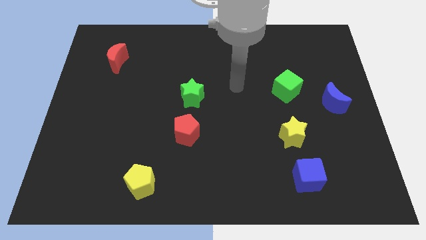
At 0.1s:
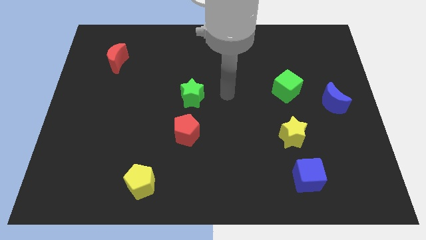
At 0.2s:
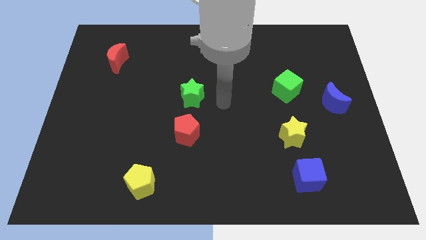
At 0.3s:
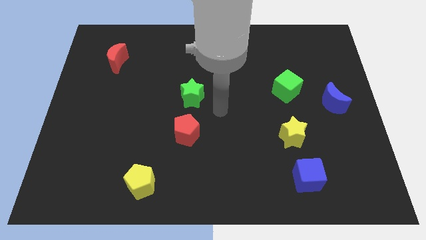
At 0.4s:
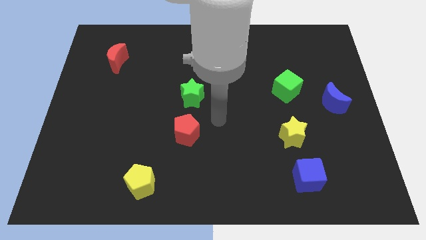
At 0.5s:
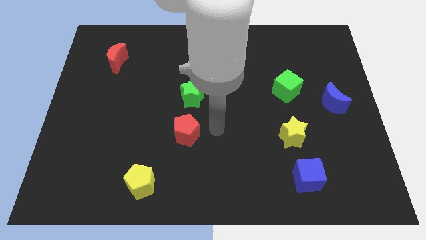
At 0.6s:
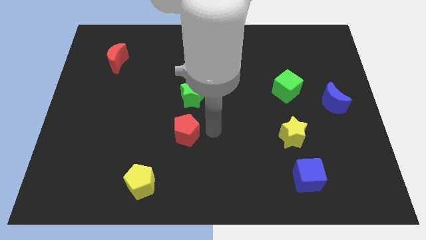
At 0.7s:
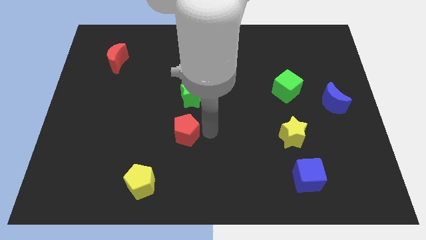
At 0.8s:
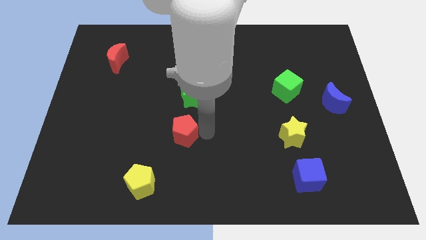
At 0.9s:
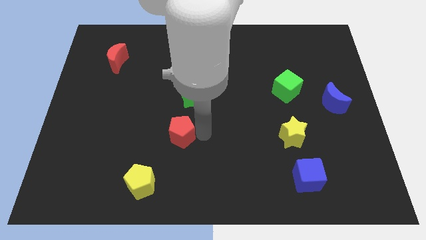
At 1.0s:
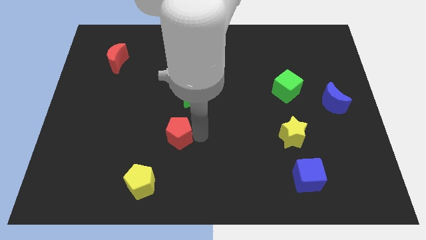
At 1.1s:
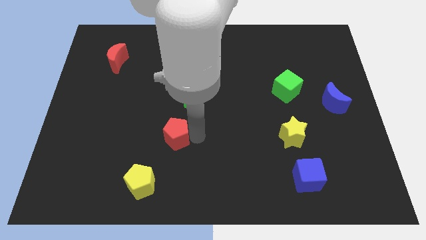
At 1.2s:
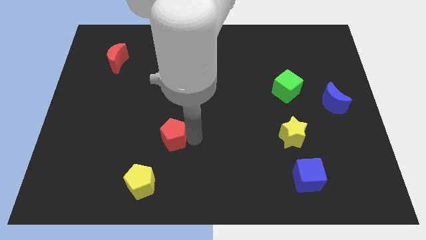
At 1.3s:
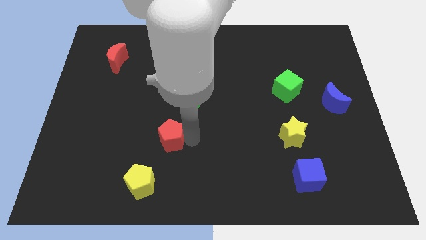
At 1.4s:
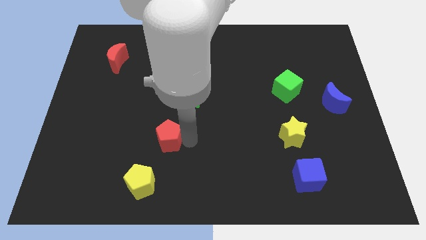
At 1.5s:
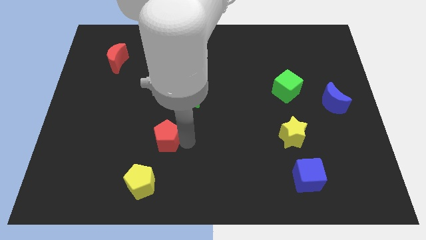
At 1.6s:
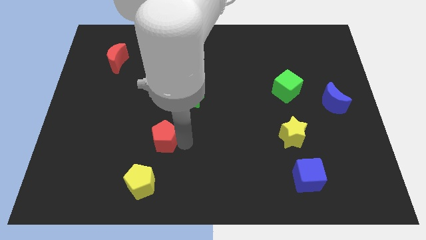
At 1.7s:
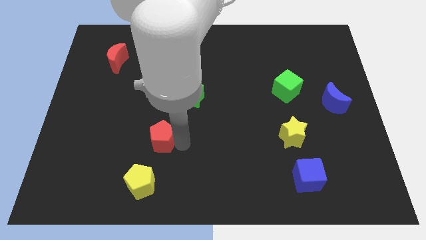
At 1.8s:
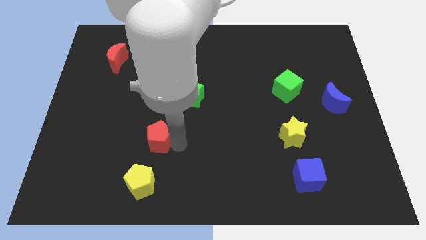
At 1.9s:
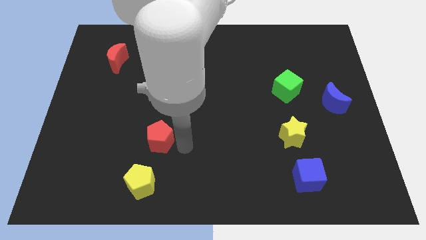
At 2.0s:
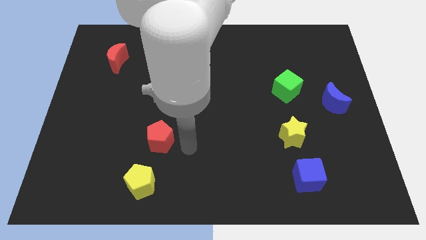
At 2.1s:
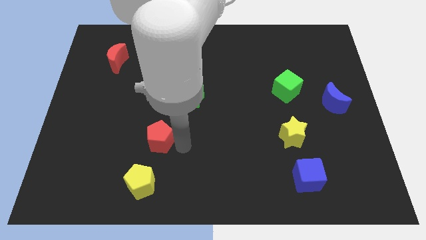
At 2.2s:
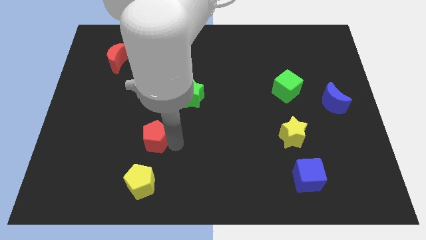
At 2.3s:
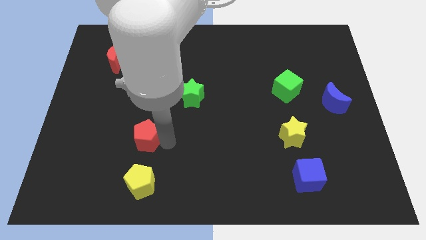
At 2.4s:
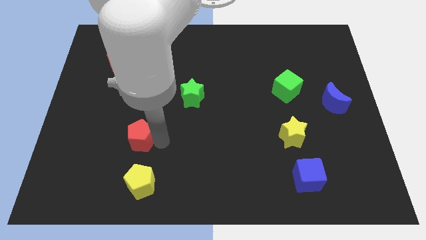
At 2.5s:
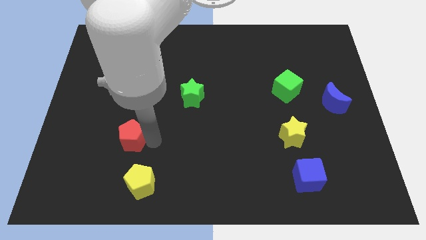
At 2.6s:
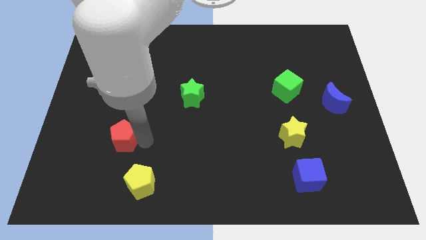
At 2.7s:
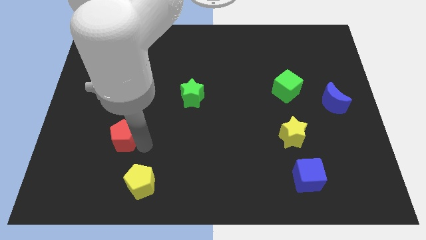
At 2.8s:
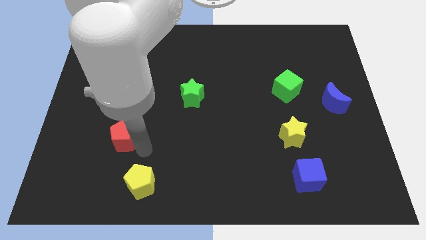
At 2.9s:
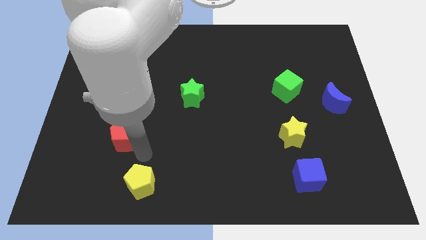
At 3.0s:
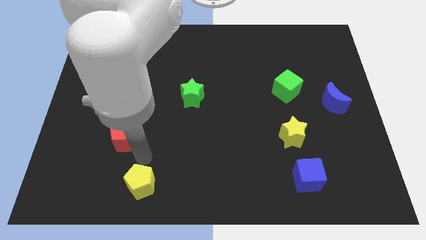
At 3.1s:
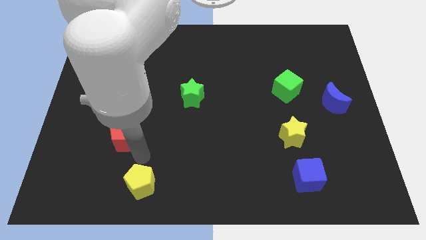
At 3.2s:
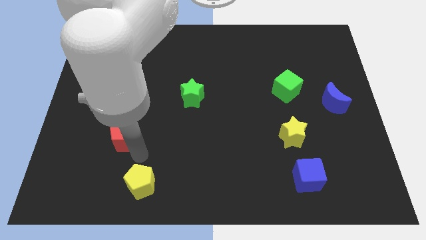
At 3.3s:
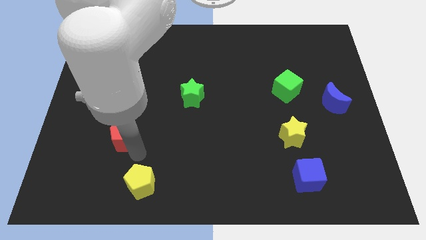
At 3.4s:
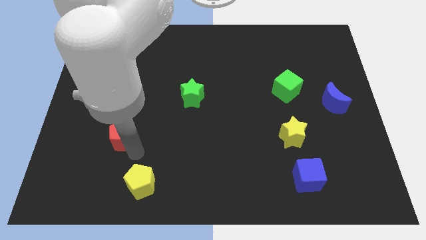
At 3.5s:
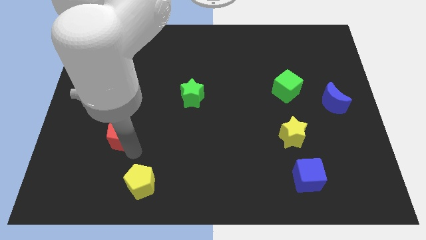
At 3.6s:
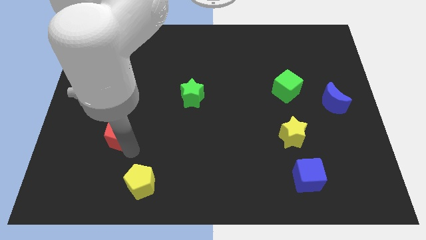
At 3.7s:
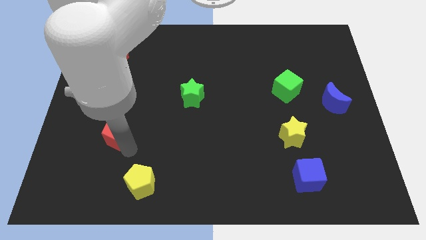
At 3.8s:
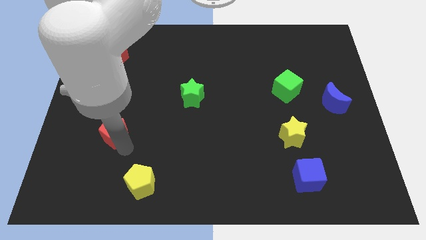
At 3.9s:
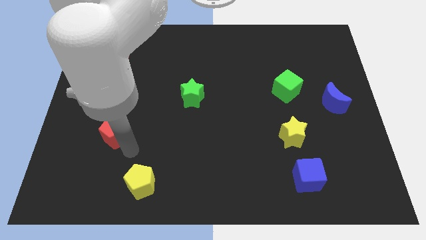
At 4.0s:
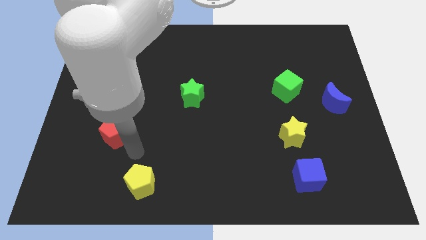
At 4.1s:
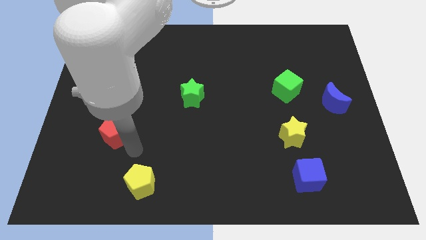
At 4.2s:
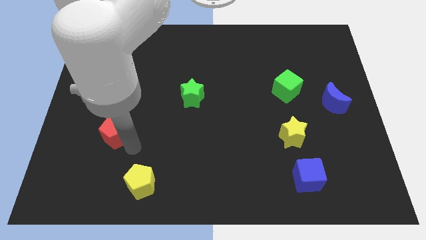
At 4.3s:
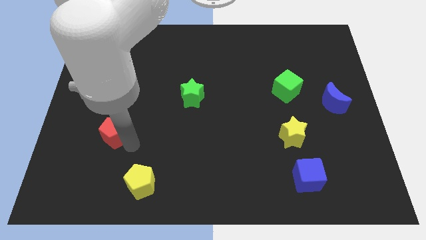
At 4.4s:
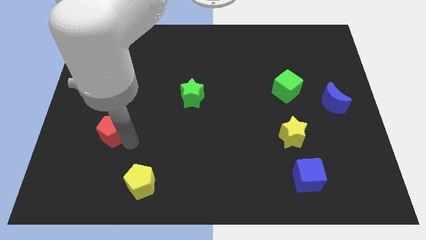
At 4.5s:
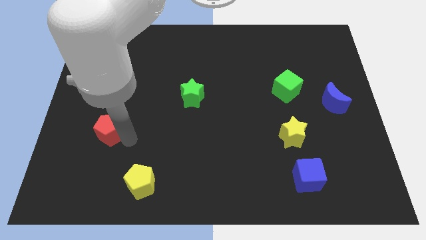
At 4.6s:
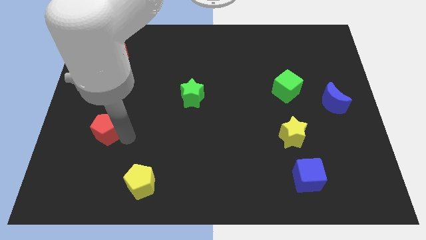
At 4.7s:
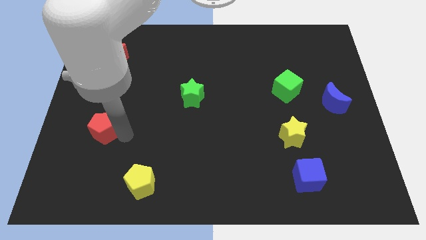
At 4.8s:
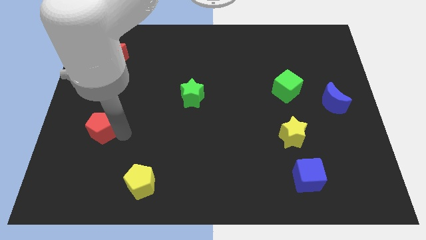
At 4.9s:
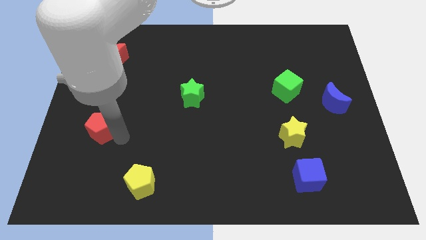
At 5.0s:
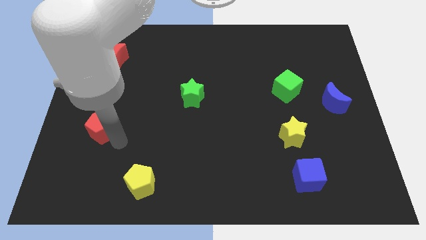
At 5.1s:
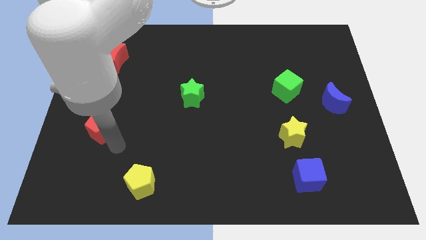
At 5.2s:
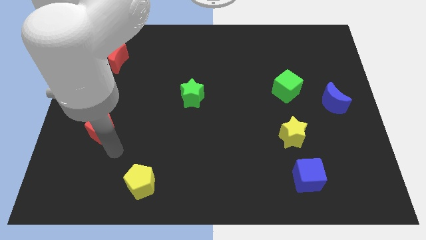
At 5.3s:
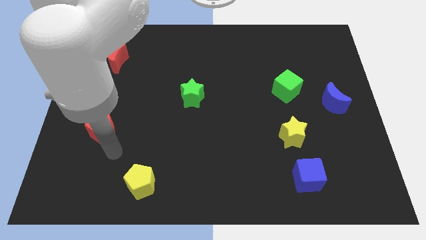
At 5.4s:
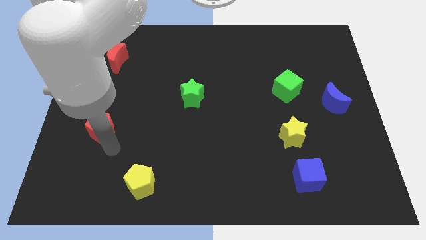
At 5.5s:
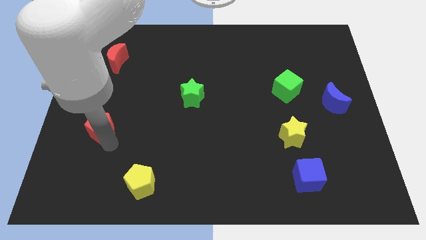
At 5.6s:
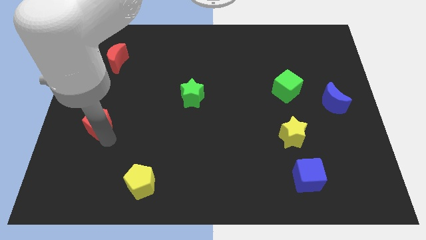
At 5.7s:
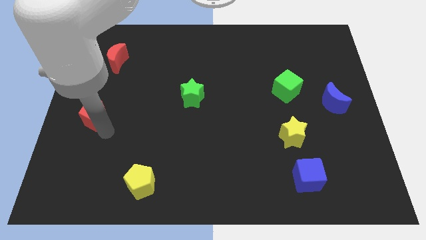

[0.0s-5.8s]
move the red pentagon to the left side of the board

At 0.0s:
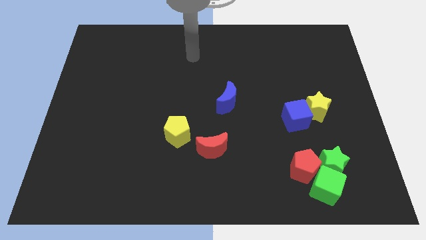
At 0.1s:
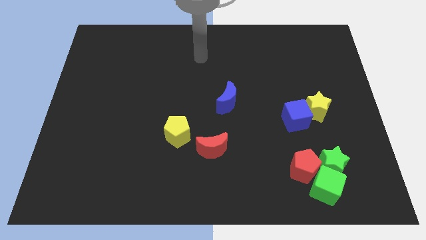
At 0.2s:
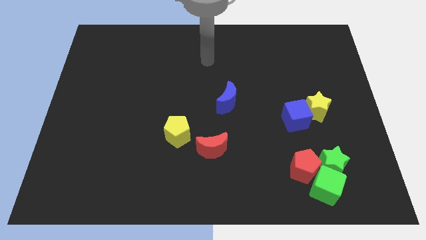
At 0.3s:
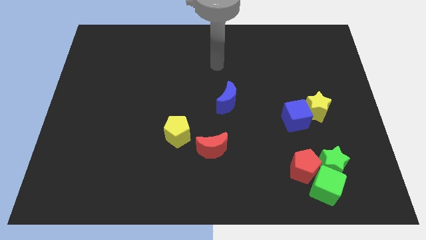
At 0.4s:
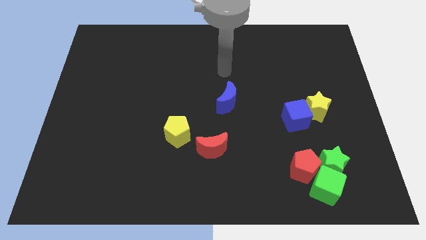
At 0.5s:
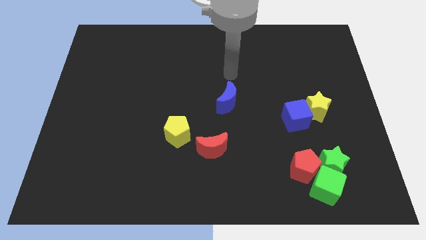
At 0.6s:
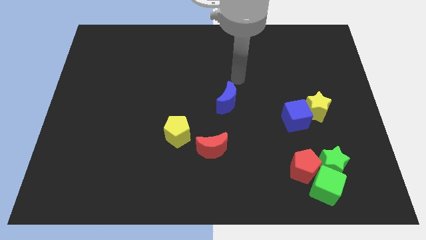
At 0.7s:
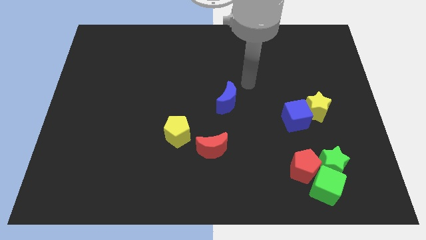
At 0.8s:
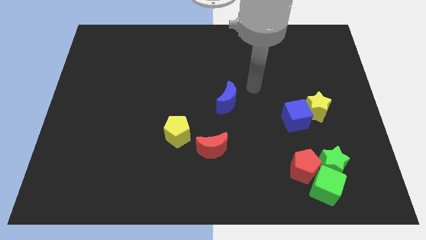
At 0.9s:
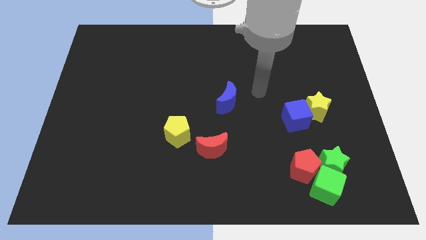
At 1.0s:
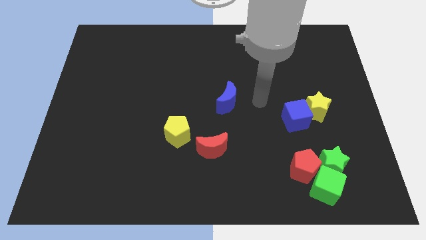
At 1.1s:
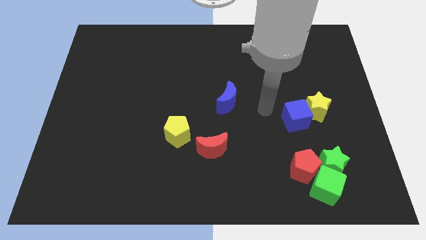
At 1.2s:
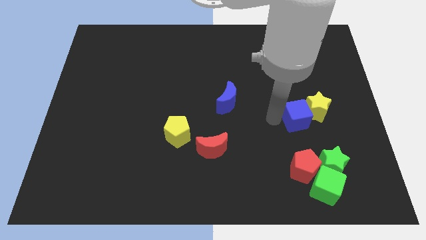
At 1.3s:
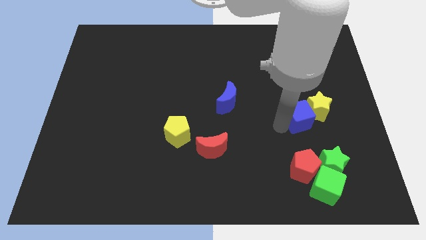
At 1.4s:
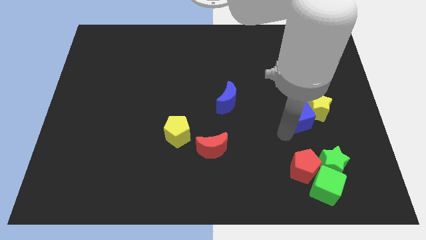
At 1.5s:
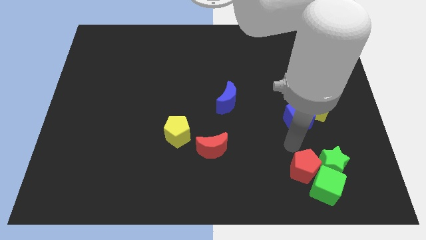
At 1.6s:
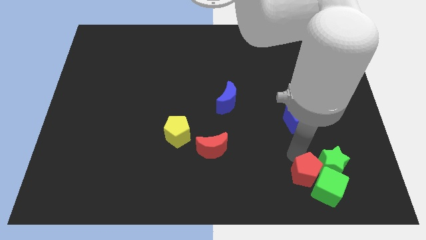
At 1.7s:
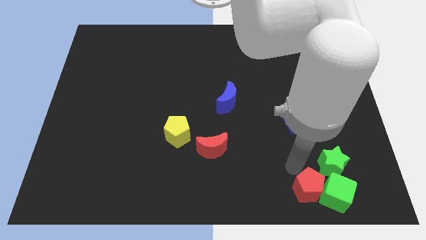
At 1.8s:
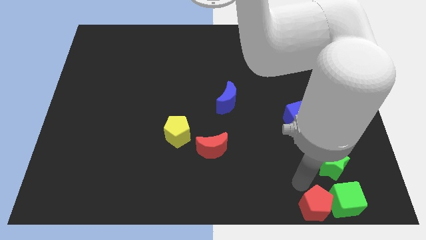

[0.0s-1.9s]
put the green cube to the bottom right
